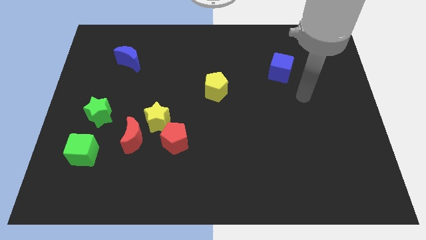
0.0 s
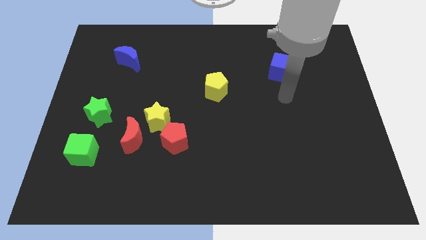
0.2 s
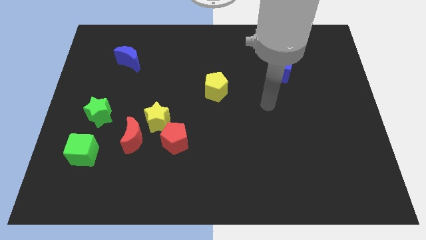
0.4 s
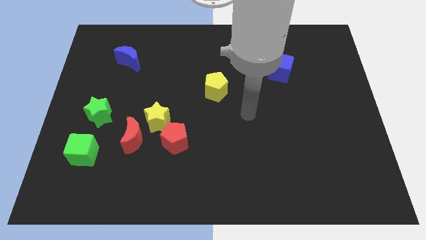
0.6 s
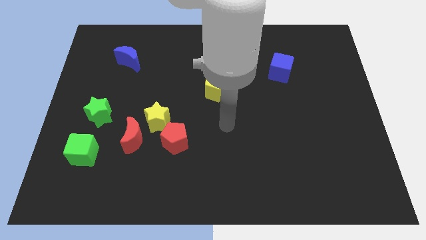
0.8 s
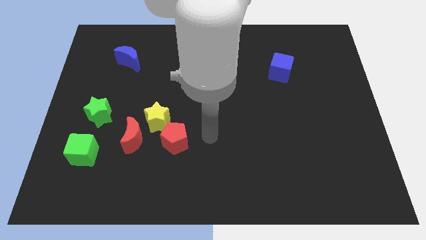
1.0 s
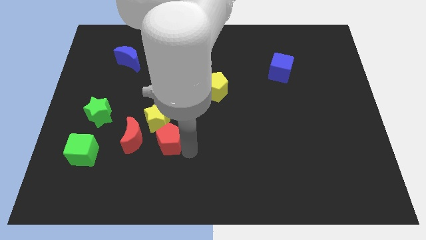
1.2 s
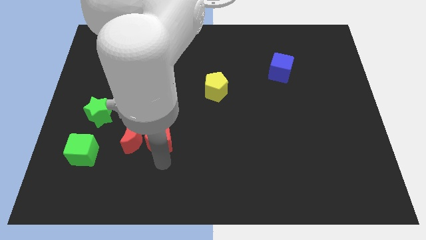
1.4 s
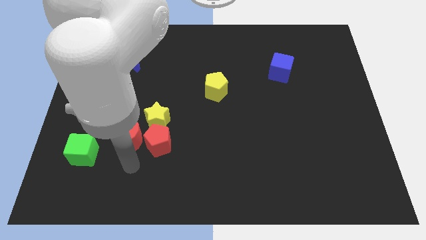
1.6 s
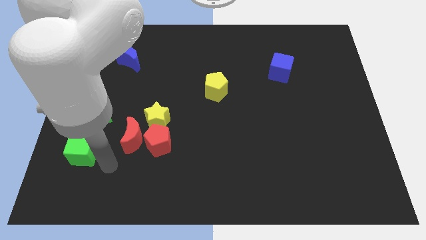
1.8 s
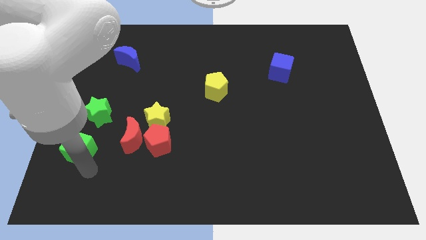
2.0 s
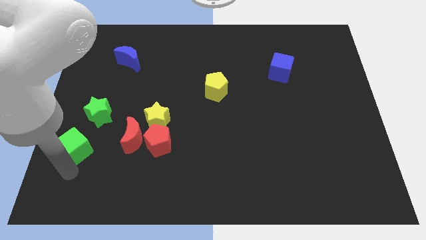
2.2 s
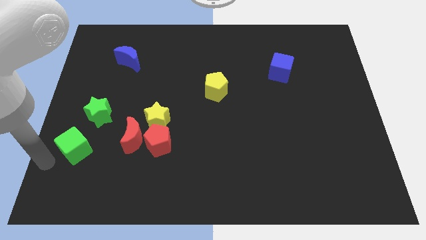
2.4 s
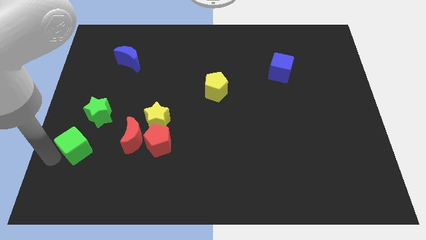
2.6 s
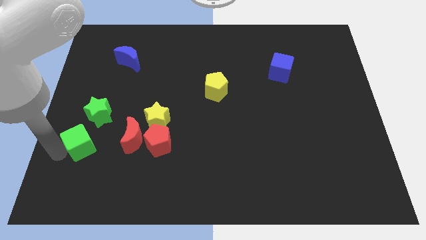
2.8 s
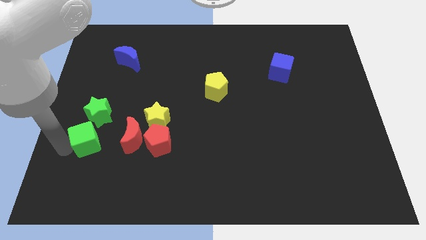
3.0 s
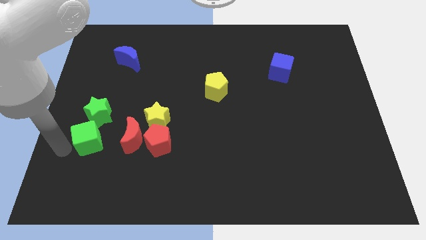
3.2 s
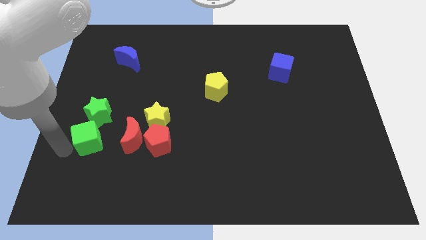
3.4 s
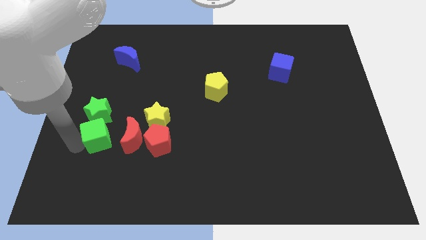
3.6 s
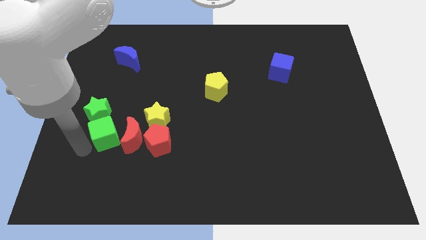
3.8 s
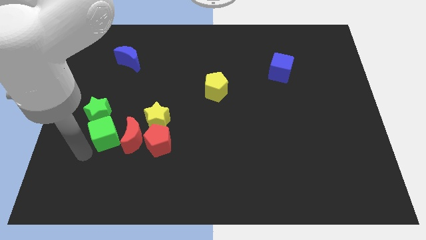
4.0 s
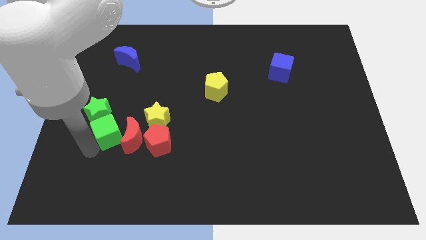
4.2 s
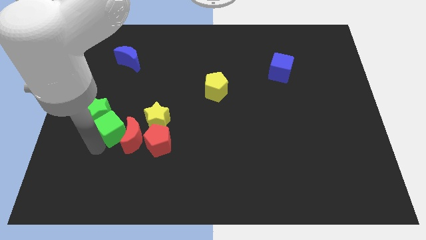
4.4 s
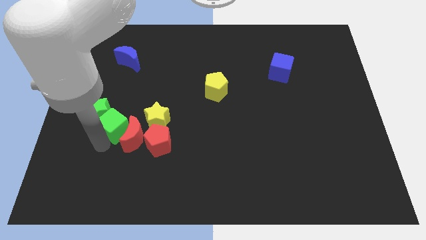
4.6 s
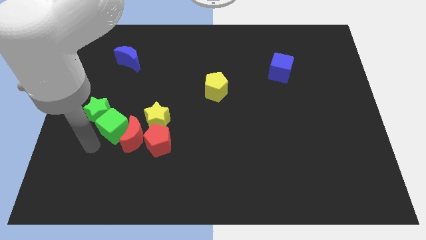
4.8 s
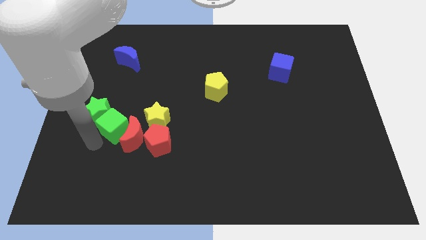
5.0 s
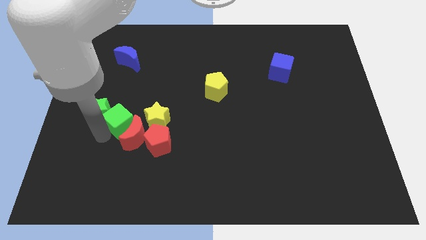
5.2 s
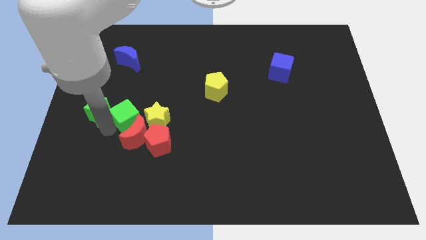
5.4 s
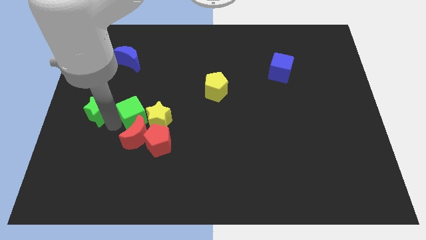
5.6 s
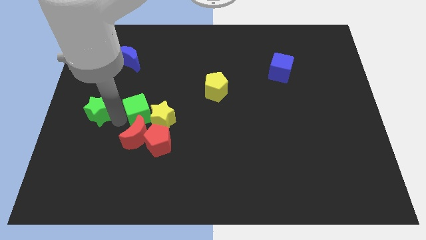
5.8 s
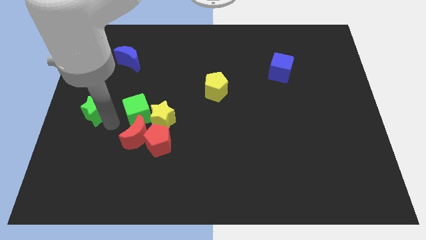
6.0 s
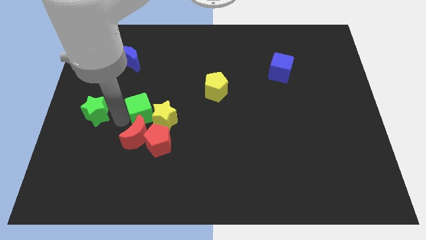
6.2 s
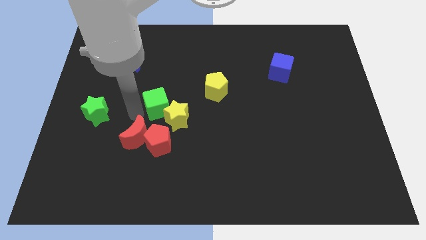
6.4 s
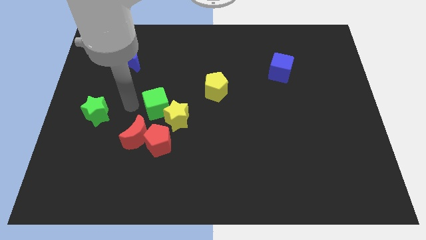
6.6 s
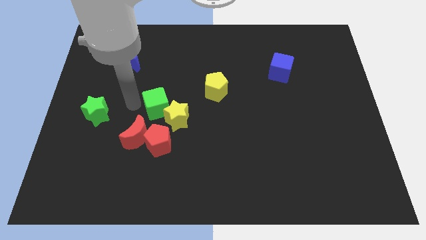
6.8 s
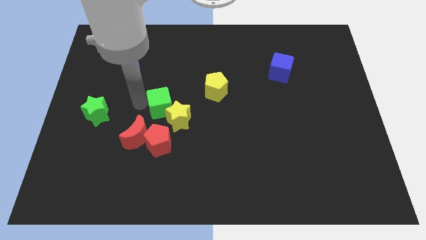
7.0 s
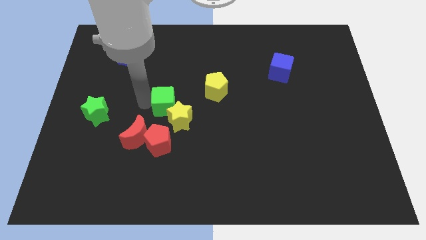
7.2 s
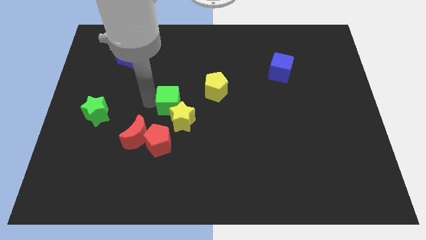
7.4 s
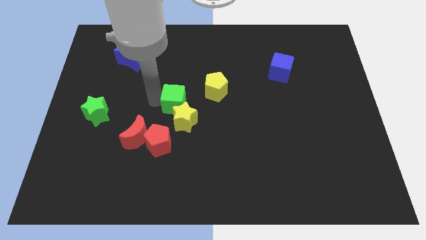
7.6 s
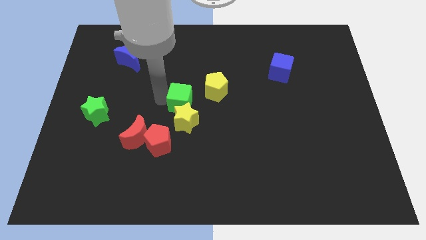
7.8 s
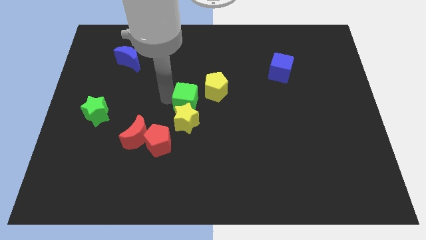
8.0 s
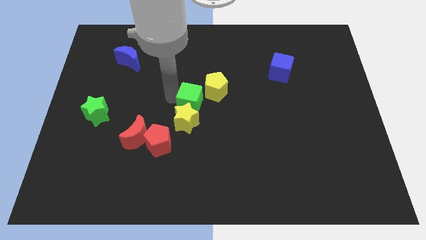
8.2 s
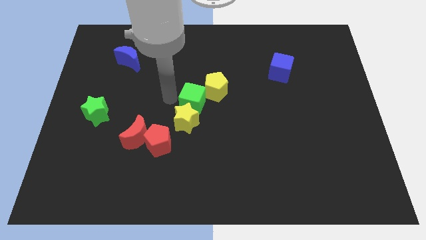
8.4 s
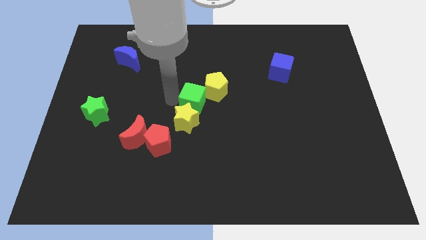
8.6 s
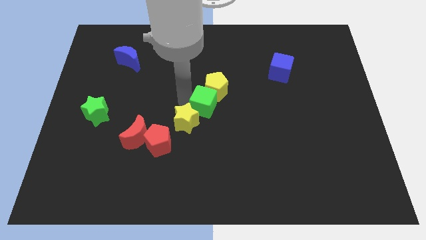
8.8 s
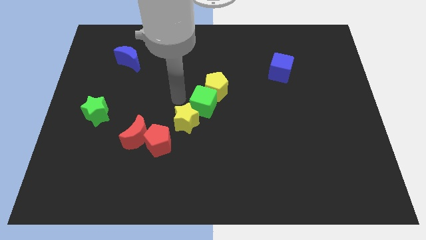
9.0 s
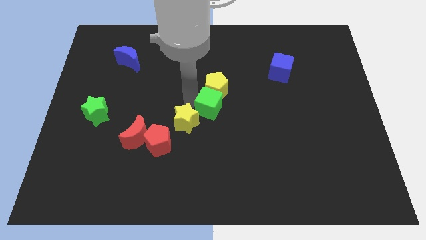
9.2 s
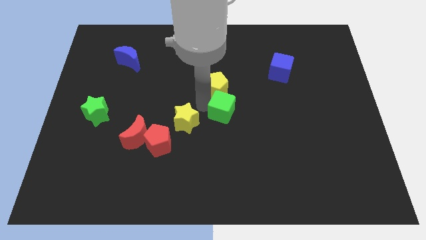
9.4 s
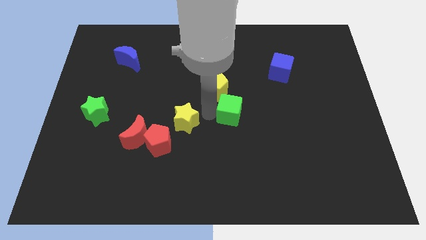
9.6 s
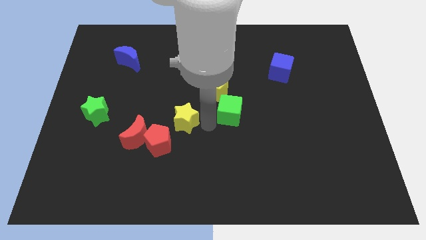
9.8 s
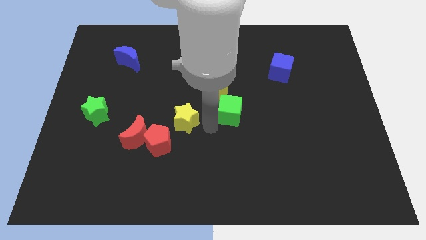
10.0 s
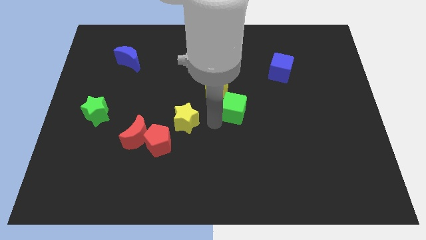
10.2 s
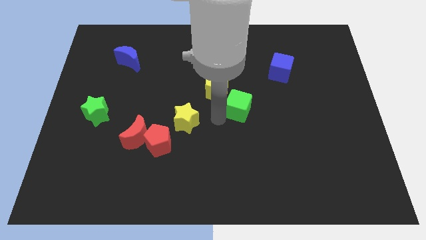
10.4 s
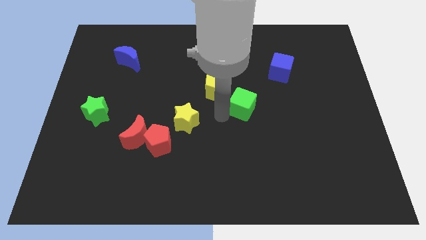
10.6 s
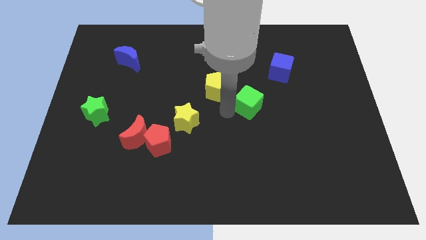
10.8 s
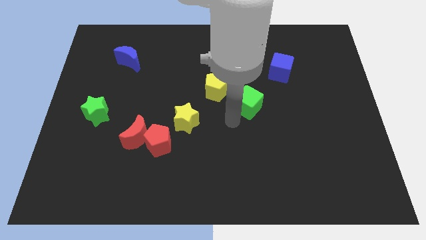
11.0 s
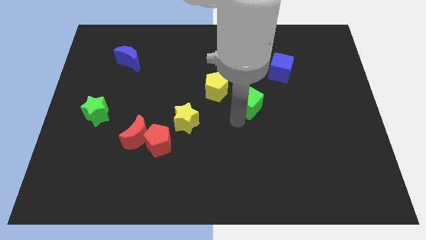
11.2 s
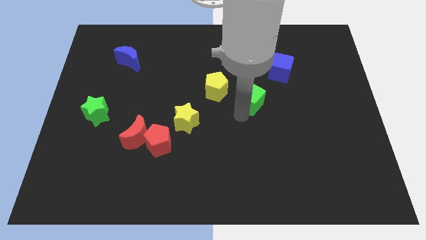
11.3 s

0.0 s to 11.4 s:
slide the green cube to the bottom left side of the blue cube

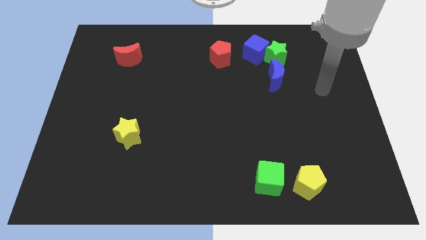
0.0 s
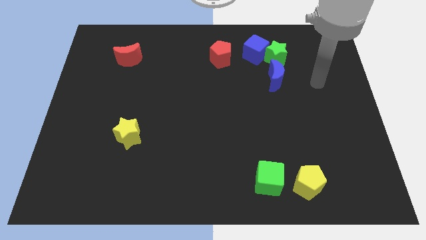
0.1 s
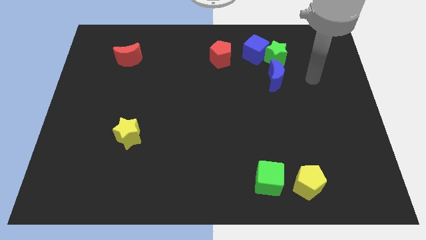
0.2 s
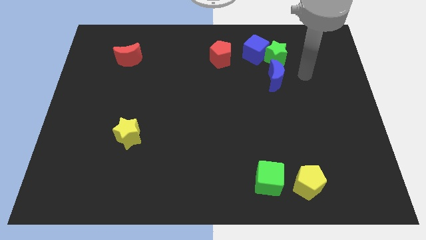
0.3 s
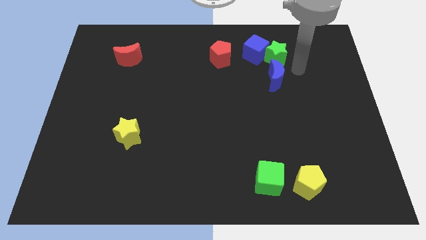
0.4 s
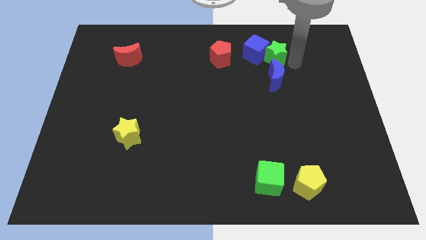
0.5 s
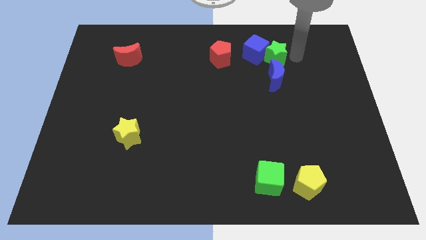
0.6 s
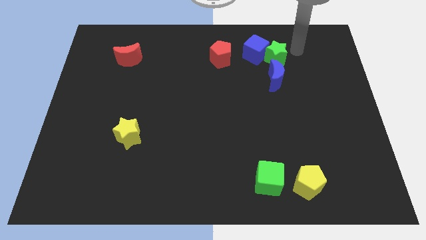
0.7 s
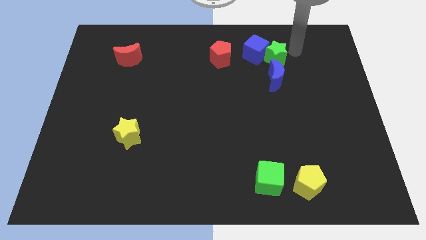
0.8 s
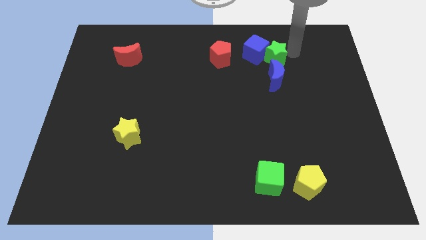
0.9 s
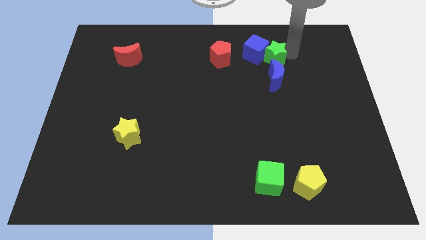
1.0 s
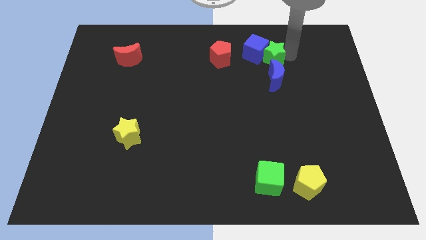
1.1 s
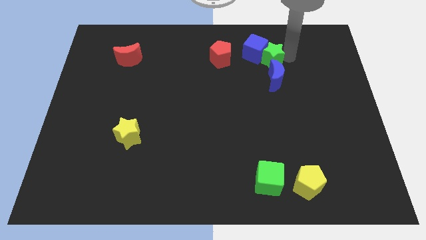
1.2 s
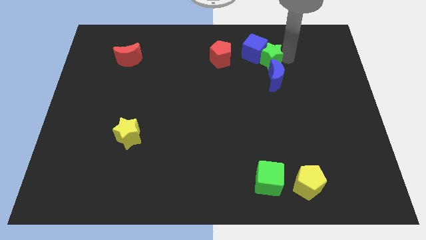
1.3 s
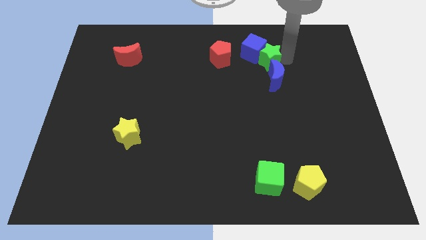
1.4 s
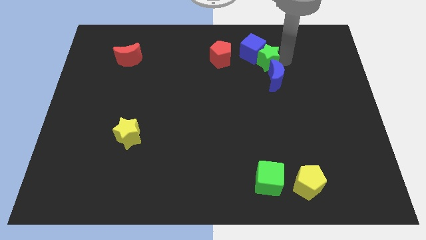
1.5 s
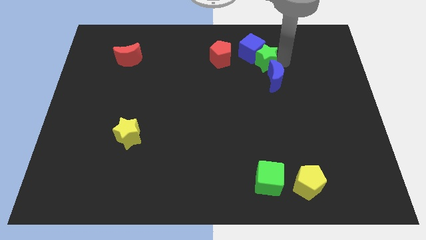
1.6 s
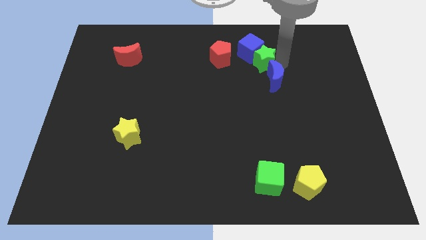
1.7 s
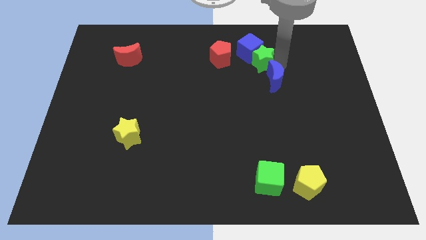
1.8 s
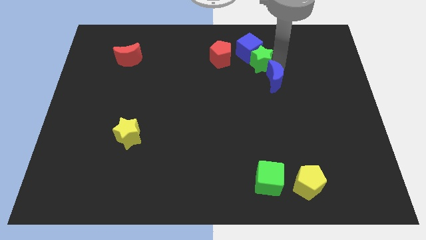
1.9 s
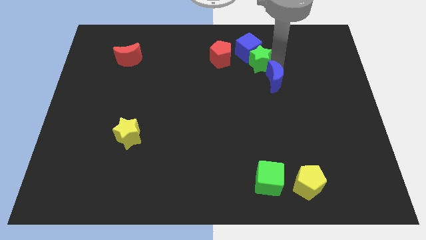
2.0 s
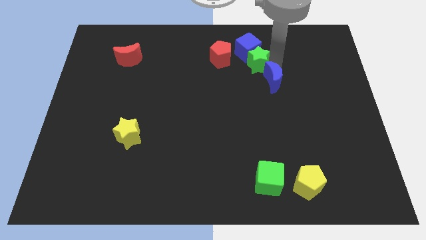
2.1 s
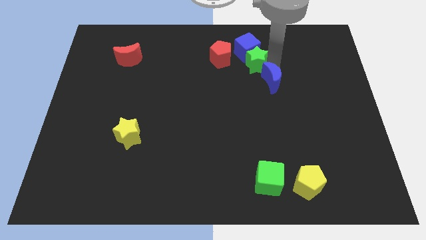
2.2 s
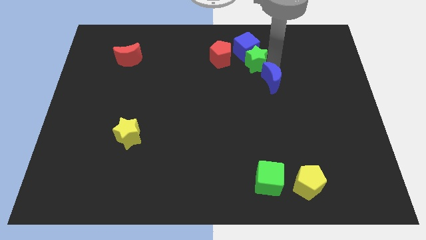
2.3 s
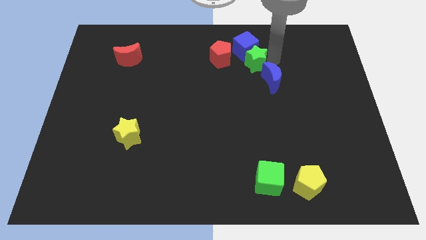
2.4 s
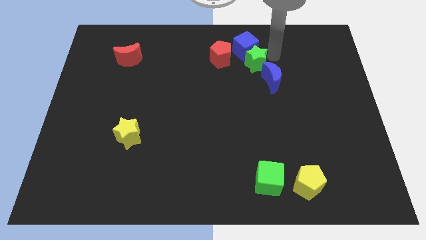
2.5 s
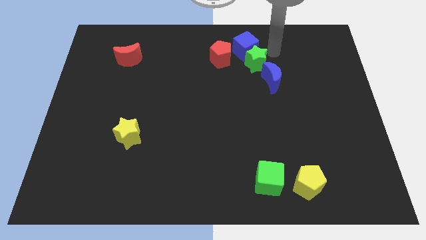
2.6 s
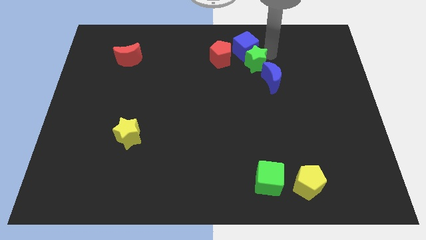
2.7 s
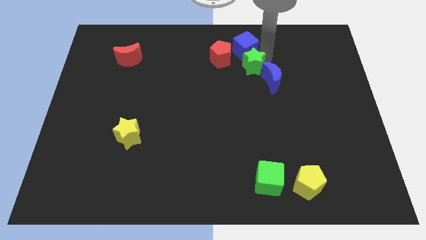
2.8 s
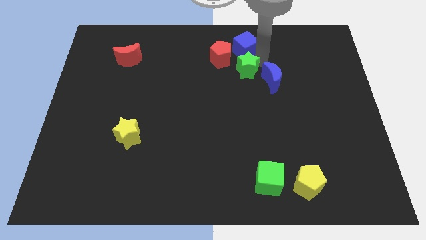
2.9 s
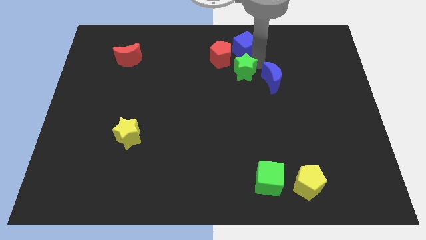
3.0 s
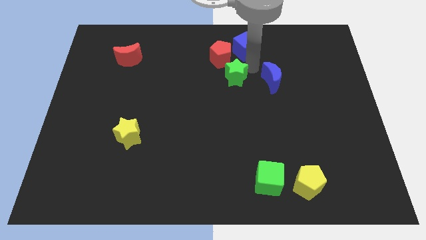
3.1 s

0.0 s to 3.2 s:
move the green star to the bottom side of the red pentagon
